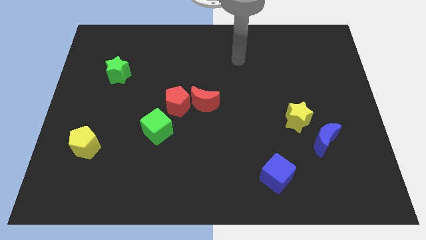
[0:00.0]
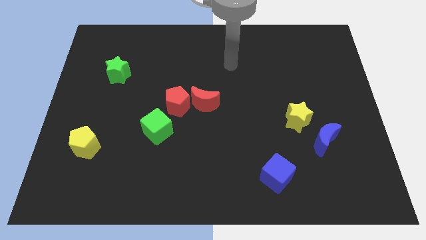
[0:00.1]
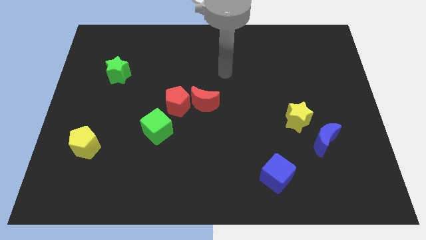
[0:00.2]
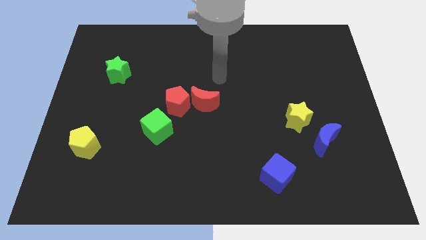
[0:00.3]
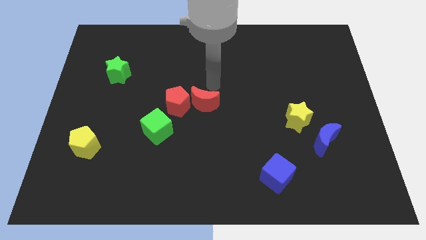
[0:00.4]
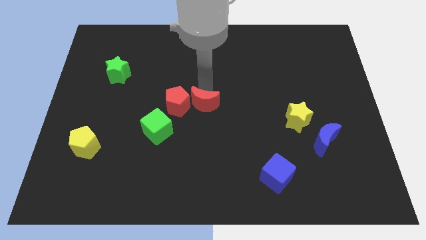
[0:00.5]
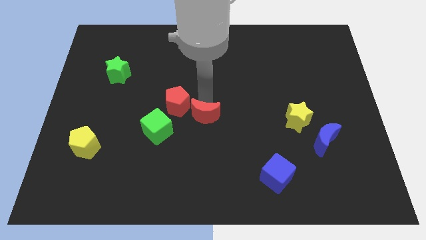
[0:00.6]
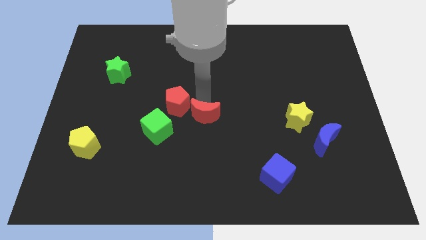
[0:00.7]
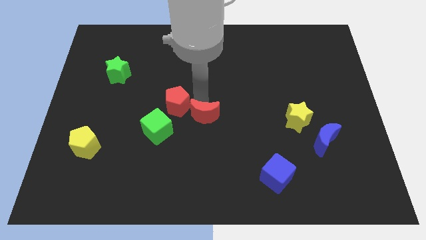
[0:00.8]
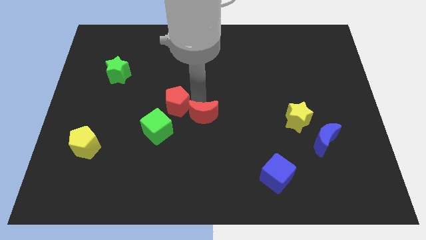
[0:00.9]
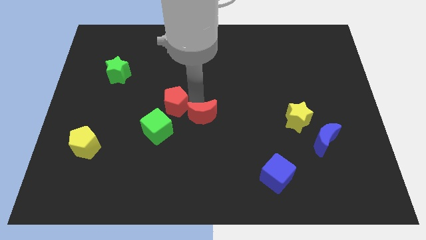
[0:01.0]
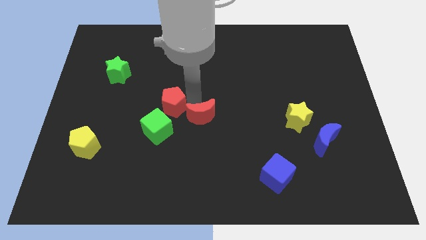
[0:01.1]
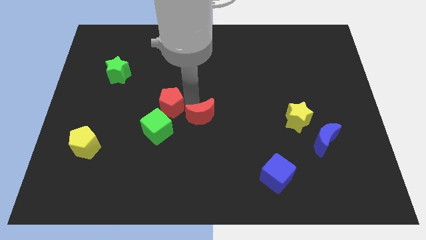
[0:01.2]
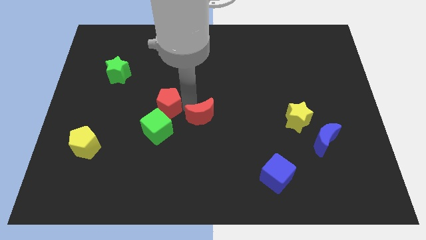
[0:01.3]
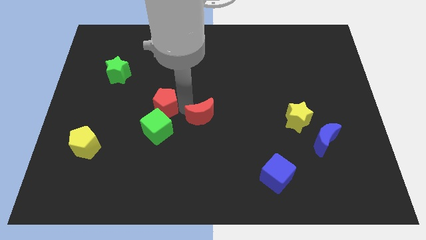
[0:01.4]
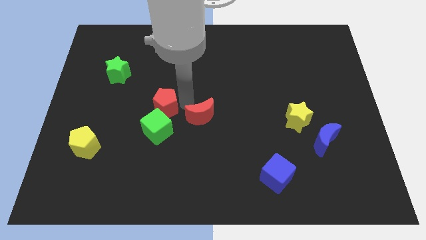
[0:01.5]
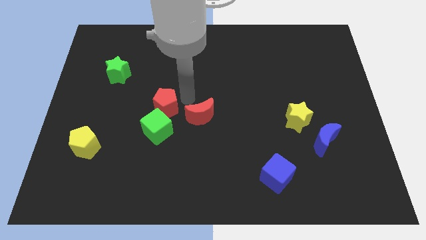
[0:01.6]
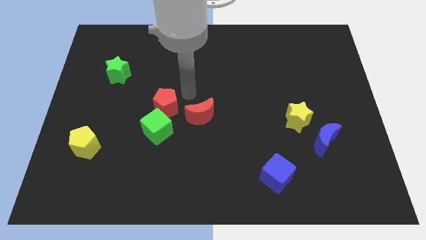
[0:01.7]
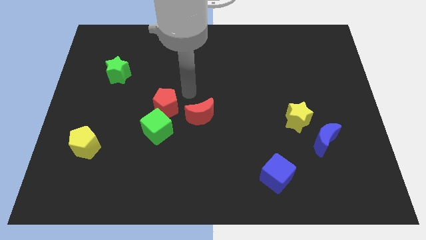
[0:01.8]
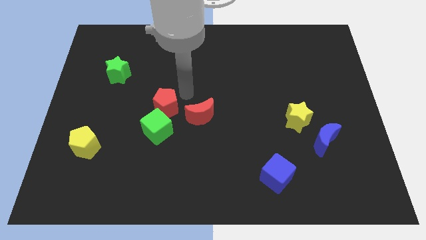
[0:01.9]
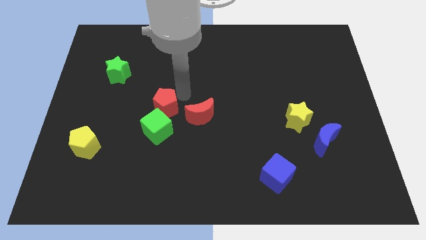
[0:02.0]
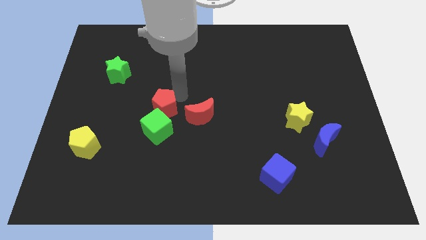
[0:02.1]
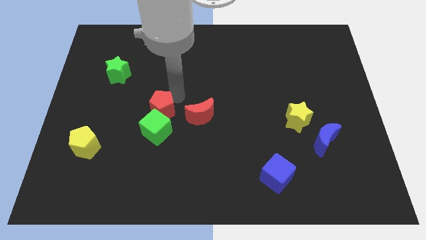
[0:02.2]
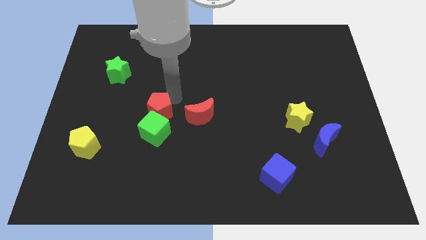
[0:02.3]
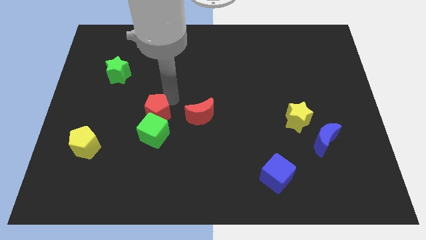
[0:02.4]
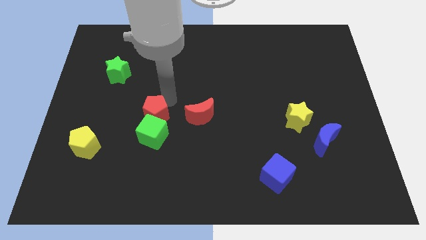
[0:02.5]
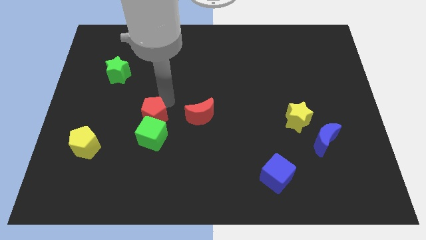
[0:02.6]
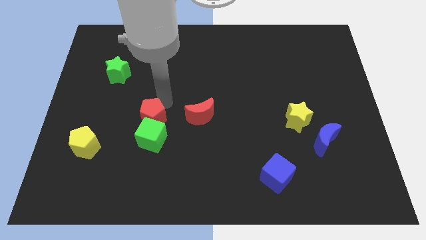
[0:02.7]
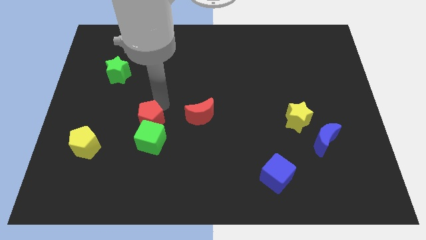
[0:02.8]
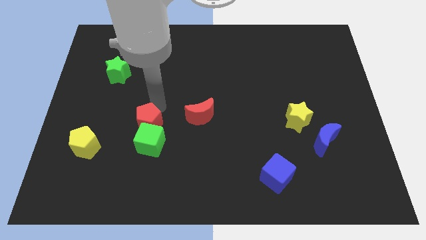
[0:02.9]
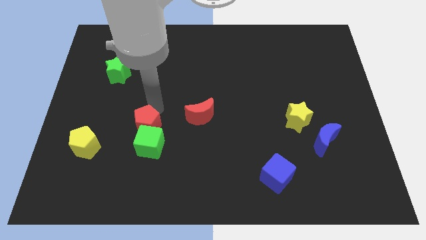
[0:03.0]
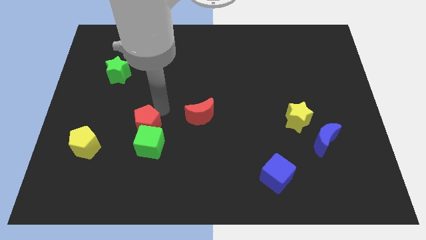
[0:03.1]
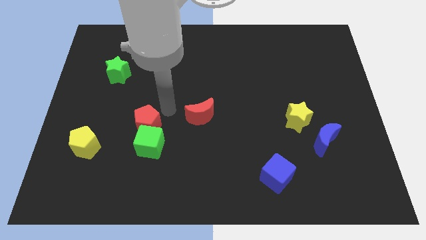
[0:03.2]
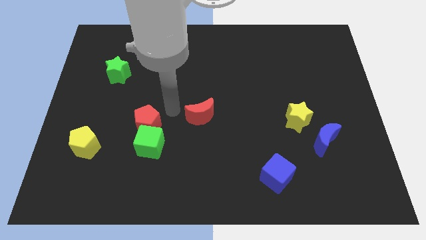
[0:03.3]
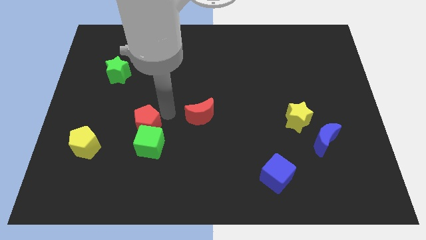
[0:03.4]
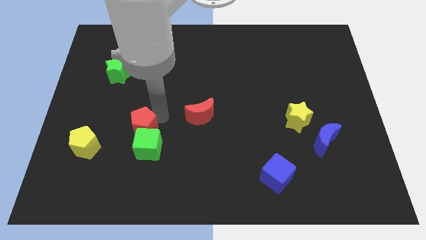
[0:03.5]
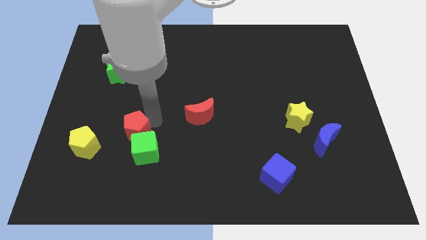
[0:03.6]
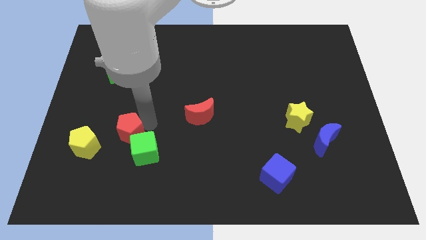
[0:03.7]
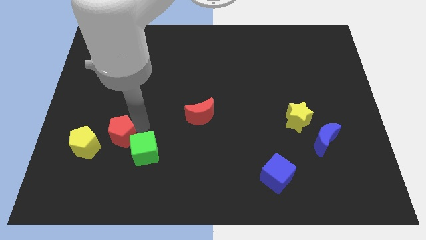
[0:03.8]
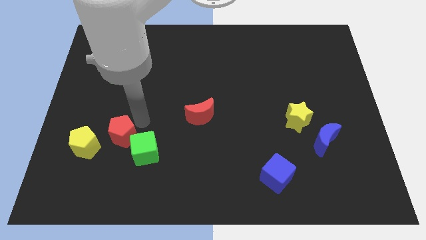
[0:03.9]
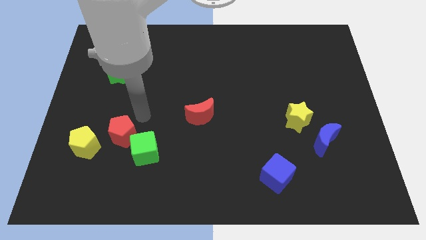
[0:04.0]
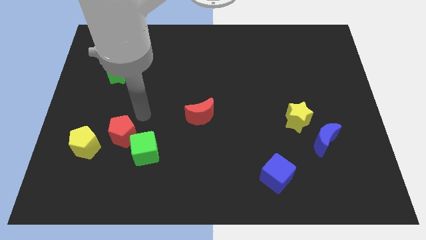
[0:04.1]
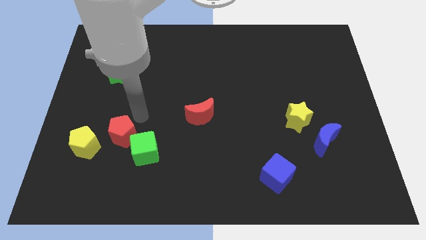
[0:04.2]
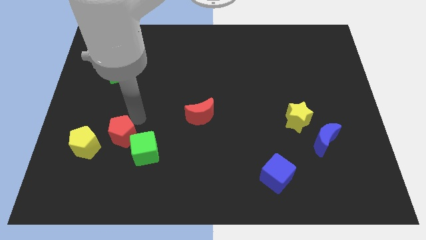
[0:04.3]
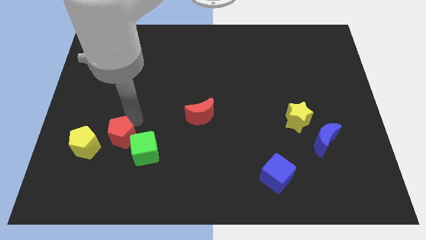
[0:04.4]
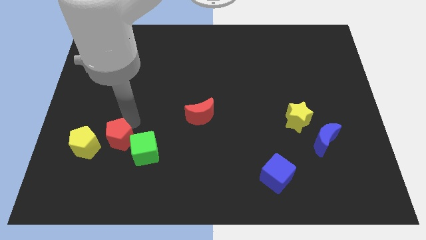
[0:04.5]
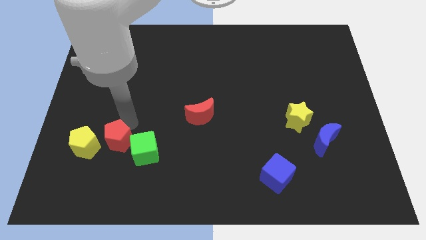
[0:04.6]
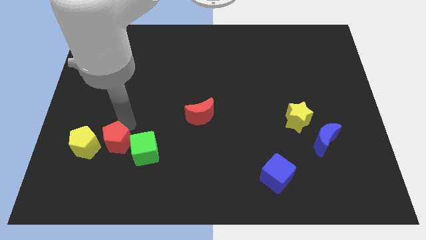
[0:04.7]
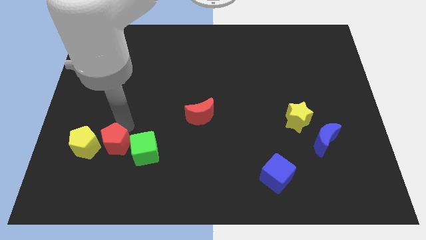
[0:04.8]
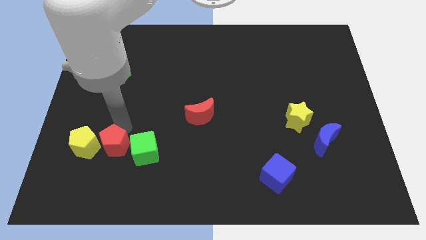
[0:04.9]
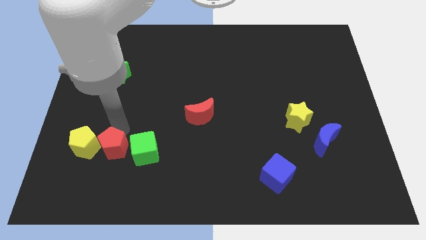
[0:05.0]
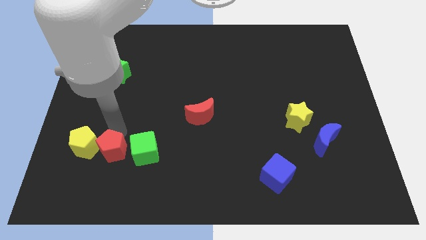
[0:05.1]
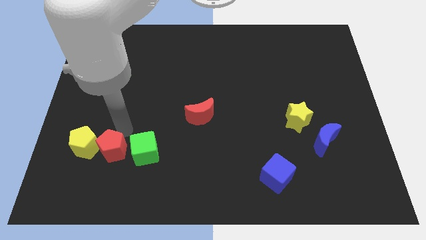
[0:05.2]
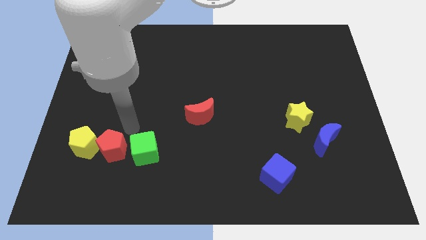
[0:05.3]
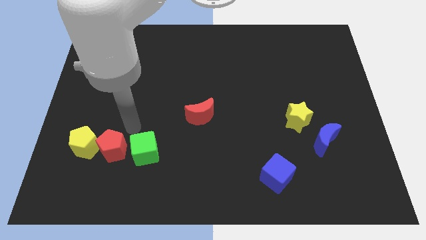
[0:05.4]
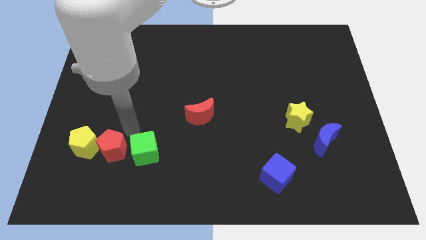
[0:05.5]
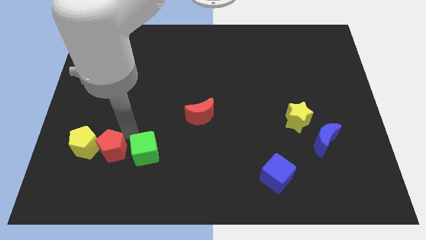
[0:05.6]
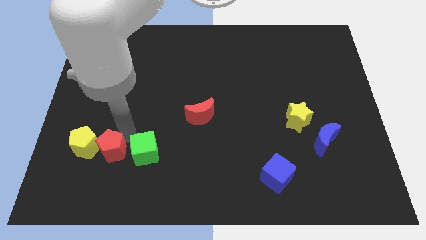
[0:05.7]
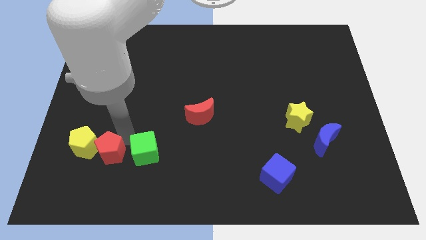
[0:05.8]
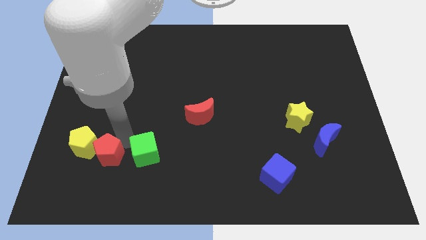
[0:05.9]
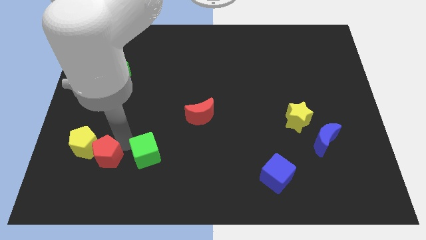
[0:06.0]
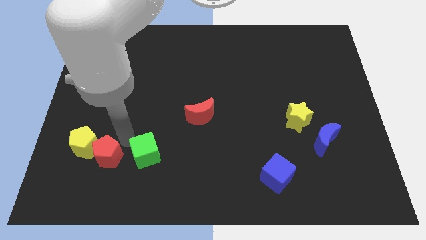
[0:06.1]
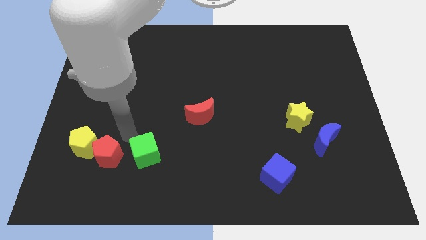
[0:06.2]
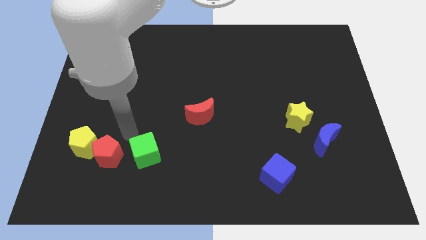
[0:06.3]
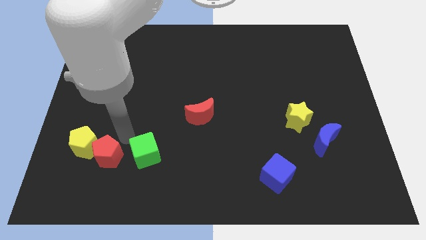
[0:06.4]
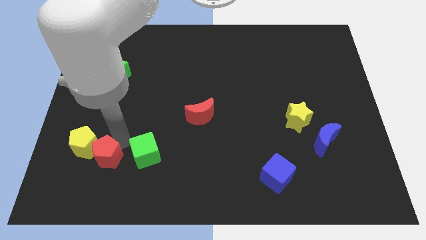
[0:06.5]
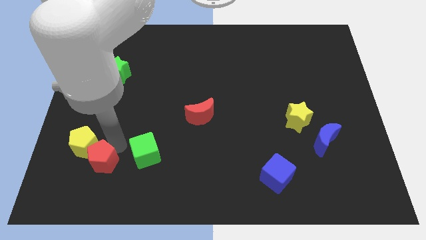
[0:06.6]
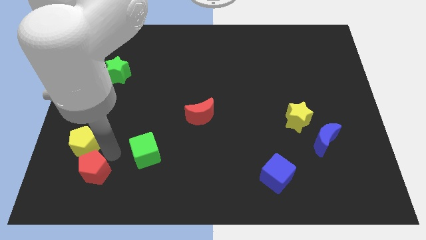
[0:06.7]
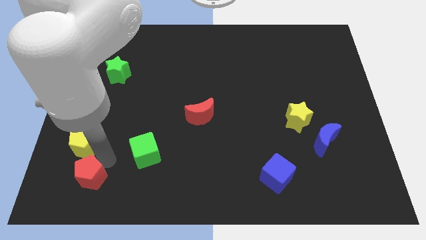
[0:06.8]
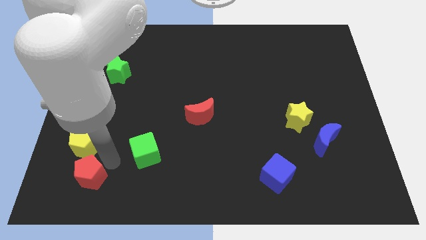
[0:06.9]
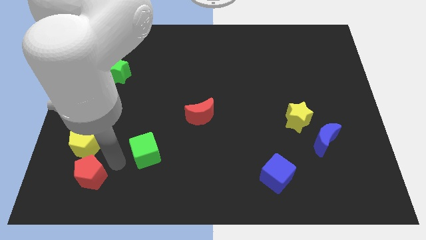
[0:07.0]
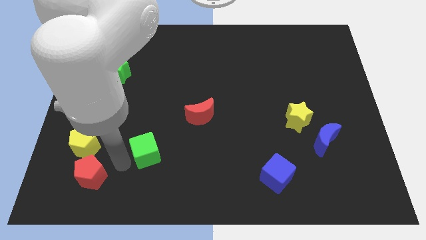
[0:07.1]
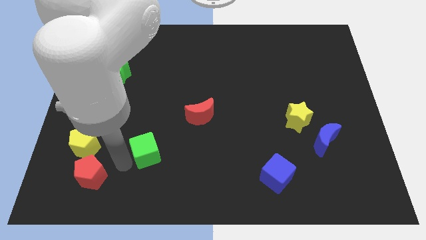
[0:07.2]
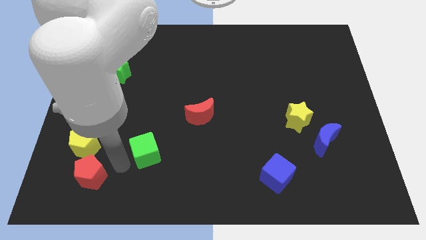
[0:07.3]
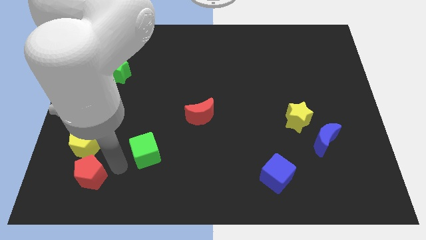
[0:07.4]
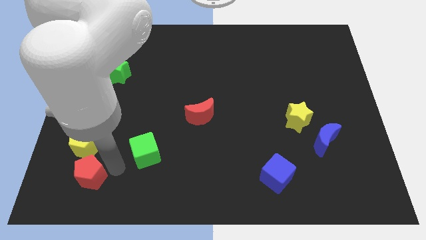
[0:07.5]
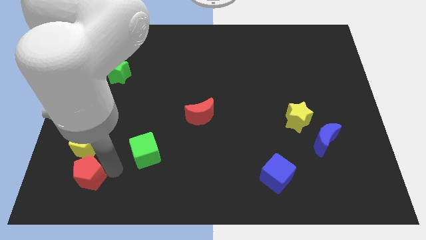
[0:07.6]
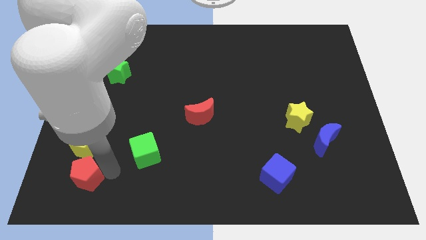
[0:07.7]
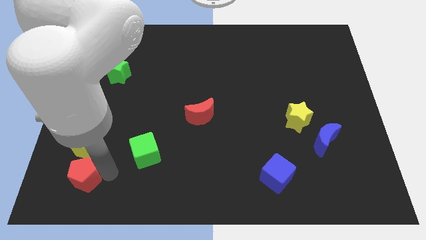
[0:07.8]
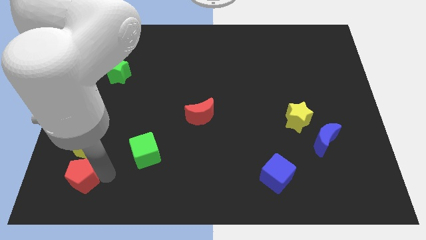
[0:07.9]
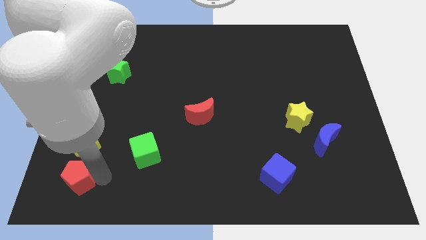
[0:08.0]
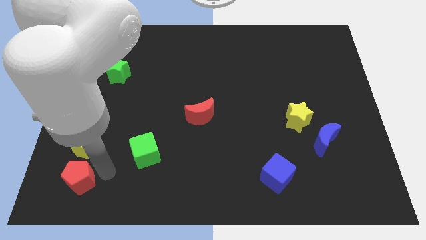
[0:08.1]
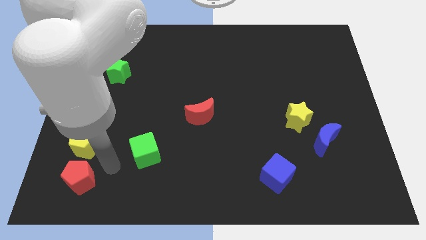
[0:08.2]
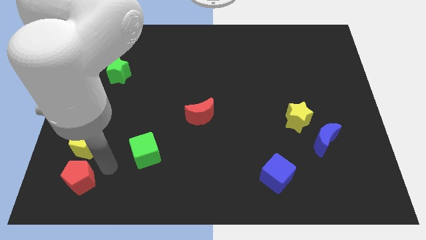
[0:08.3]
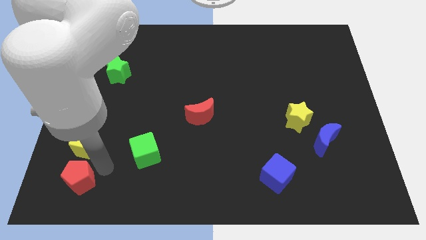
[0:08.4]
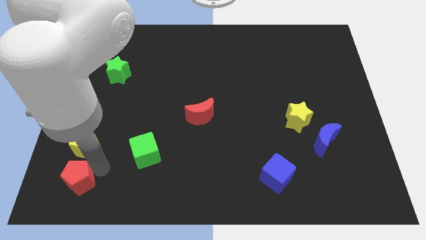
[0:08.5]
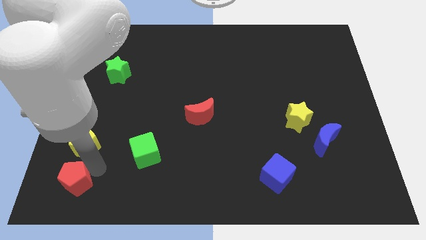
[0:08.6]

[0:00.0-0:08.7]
move the red pentagon to the lower left corner
